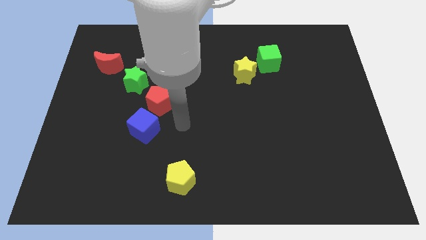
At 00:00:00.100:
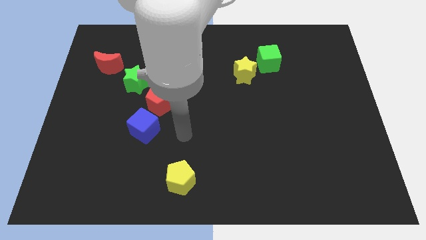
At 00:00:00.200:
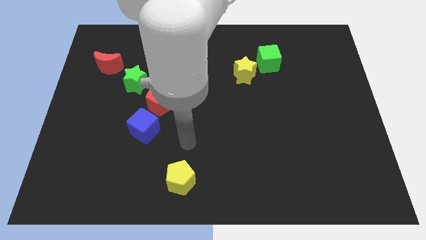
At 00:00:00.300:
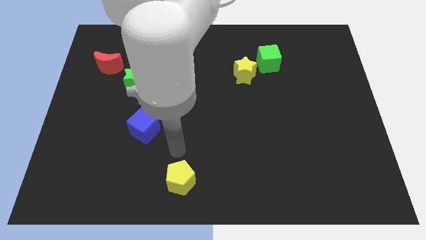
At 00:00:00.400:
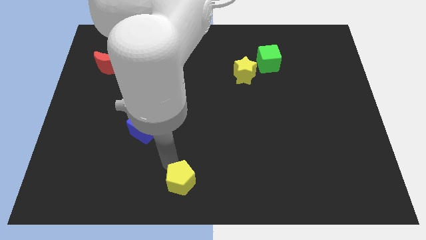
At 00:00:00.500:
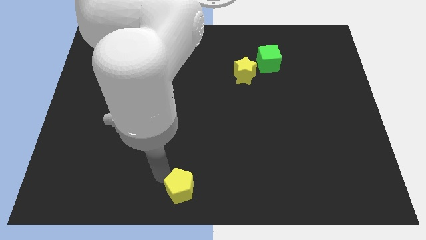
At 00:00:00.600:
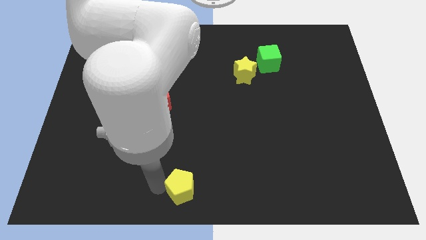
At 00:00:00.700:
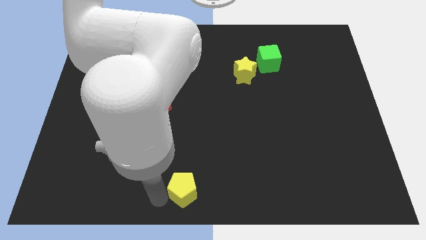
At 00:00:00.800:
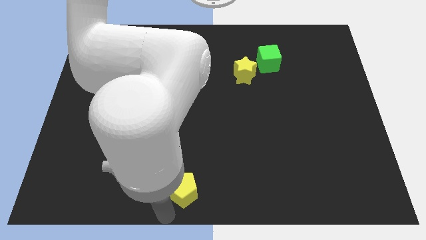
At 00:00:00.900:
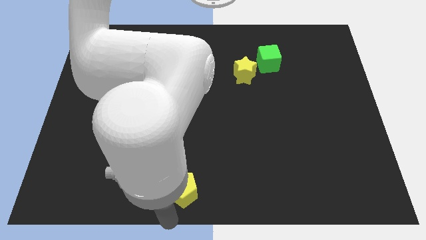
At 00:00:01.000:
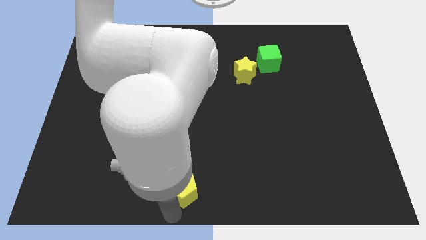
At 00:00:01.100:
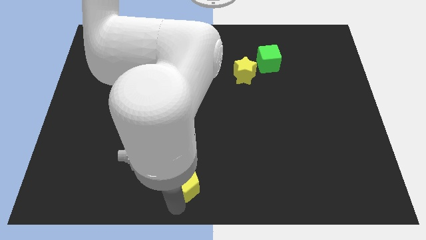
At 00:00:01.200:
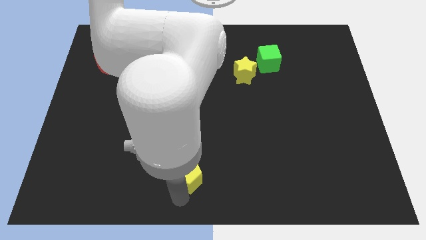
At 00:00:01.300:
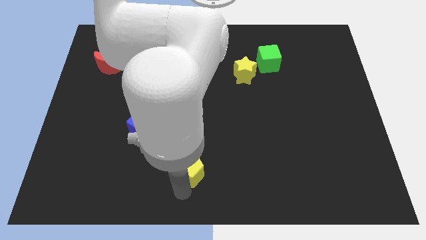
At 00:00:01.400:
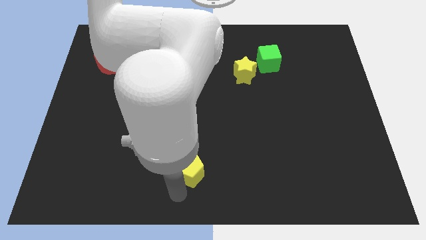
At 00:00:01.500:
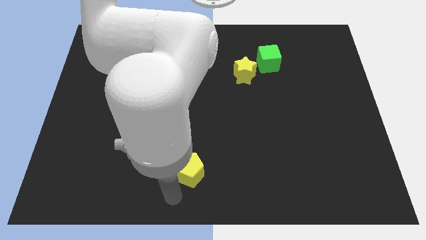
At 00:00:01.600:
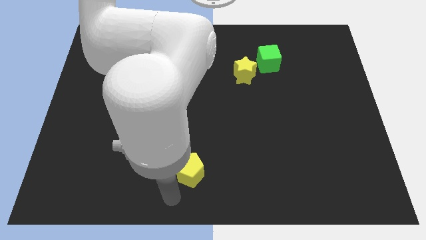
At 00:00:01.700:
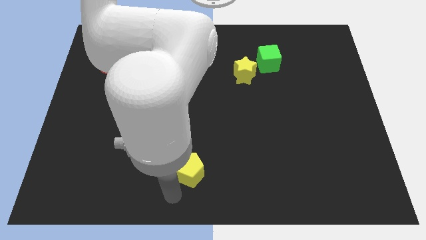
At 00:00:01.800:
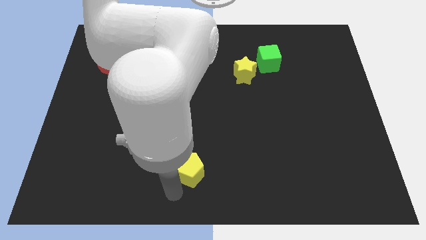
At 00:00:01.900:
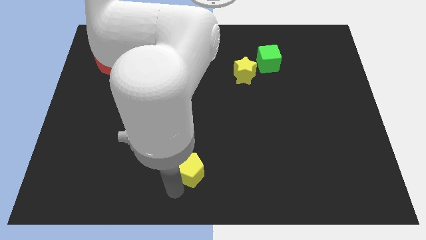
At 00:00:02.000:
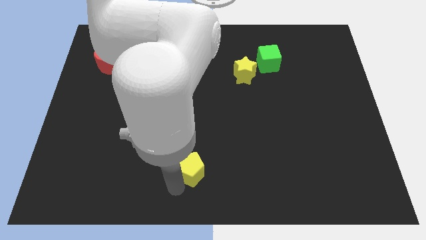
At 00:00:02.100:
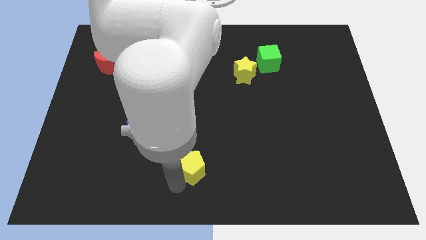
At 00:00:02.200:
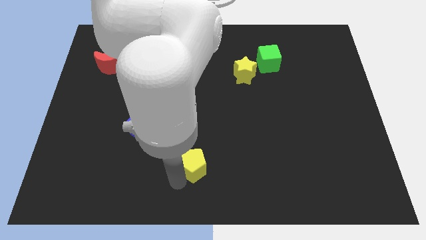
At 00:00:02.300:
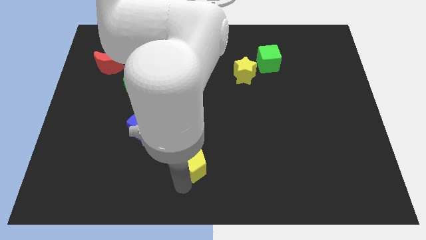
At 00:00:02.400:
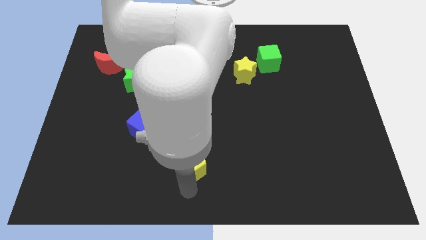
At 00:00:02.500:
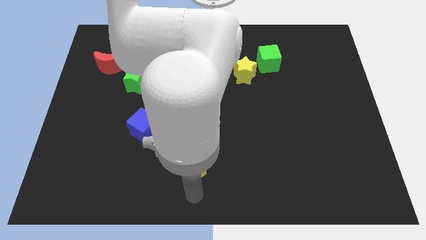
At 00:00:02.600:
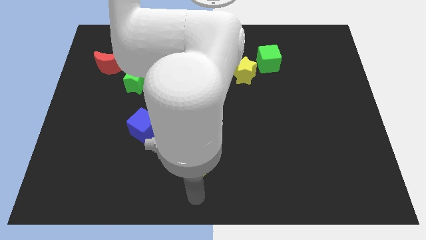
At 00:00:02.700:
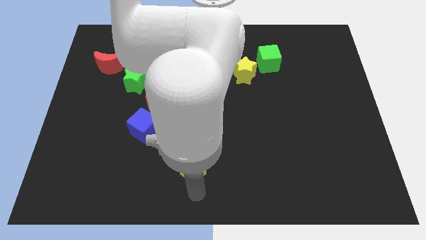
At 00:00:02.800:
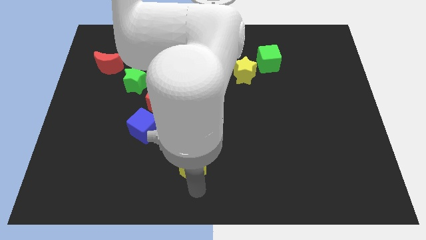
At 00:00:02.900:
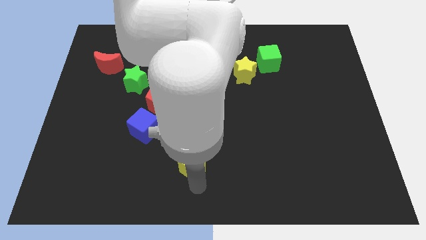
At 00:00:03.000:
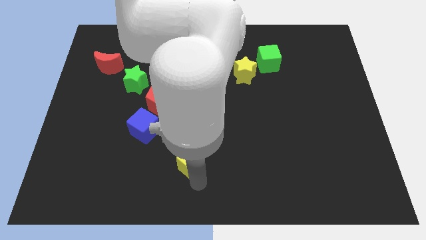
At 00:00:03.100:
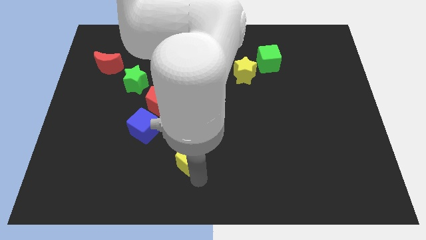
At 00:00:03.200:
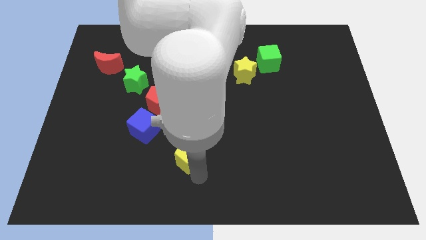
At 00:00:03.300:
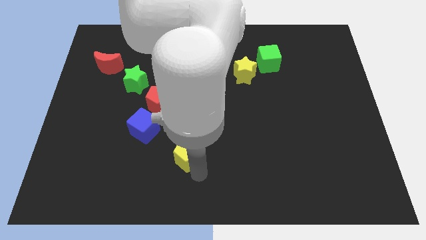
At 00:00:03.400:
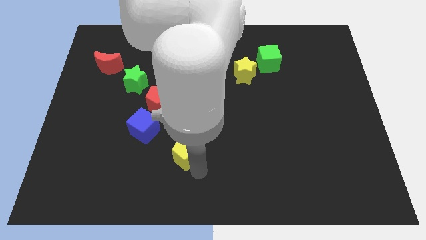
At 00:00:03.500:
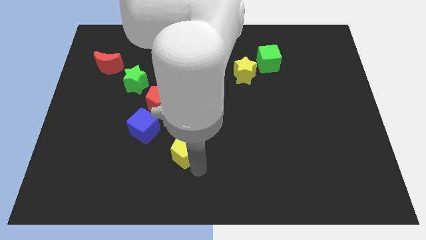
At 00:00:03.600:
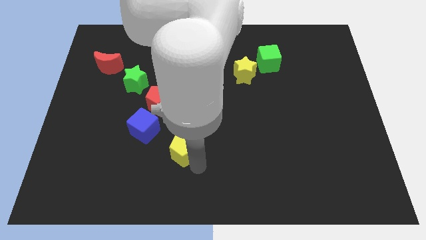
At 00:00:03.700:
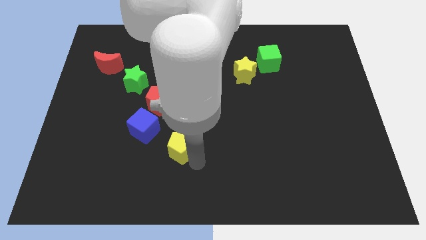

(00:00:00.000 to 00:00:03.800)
move the yellow pentagon up somewhat

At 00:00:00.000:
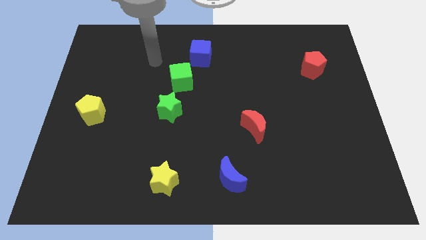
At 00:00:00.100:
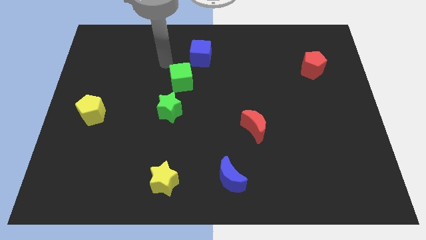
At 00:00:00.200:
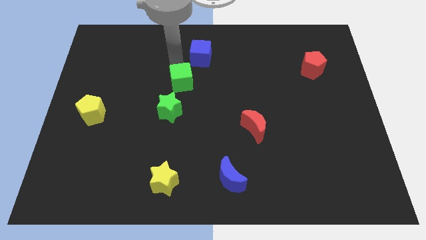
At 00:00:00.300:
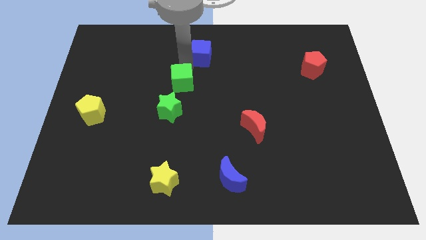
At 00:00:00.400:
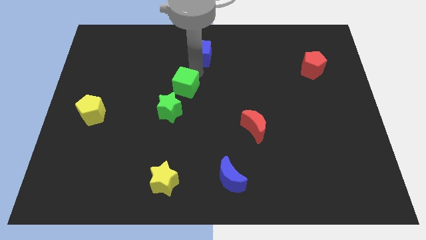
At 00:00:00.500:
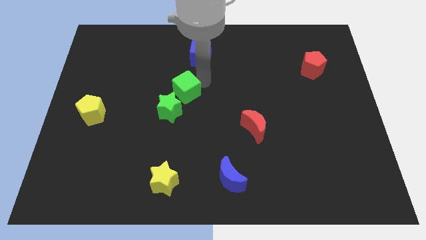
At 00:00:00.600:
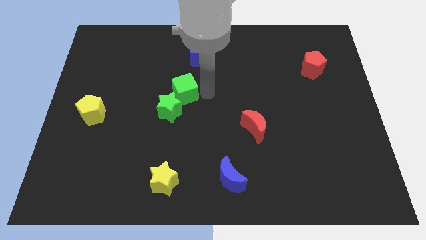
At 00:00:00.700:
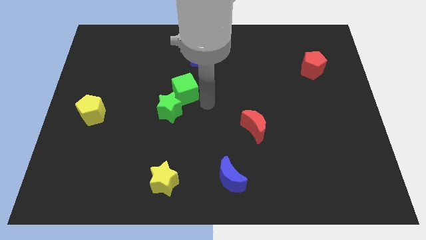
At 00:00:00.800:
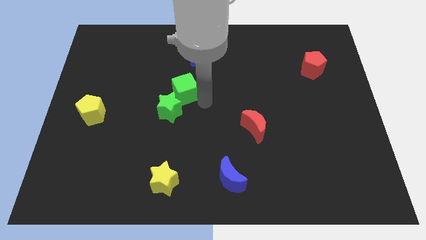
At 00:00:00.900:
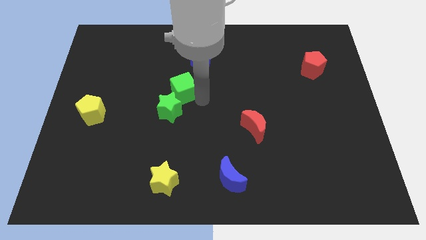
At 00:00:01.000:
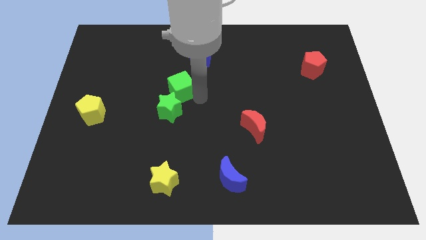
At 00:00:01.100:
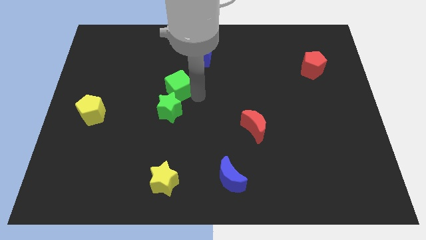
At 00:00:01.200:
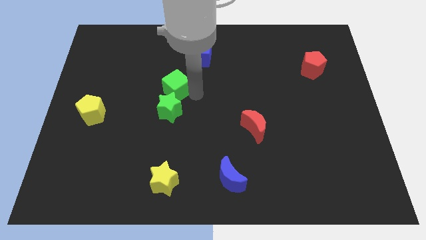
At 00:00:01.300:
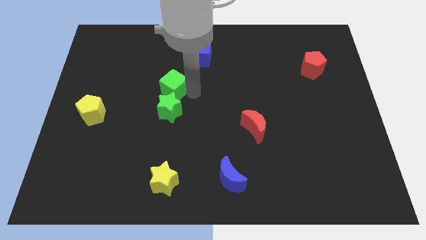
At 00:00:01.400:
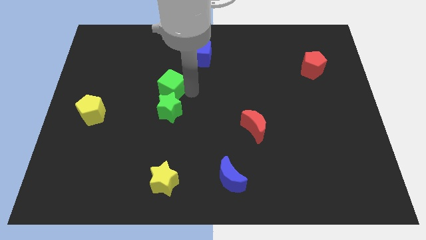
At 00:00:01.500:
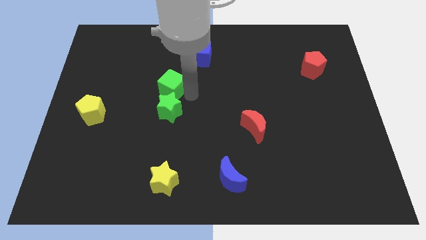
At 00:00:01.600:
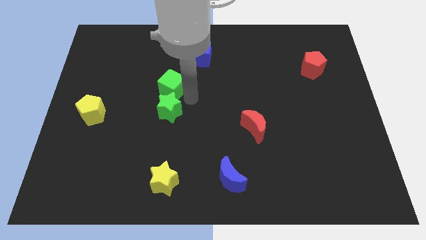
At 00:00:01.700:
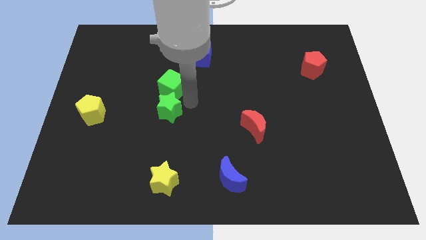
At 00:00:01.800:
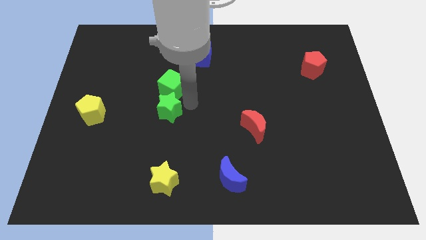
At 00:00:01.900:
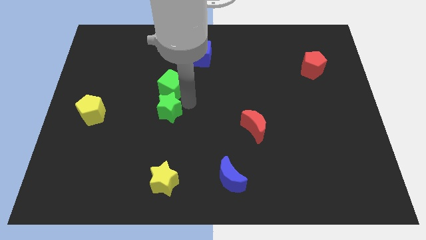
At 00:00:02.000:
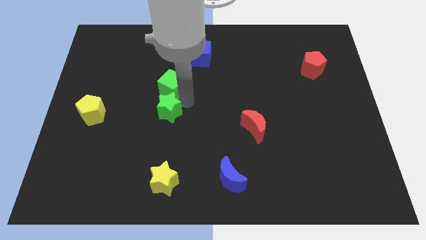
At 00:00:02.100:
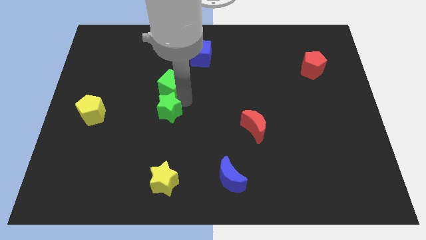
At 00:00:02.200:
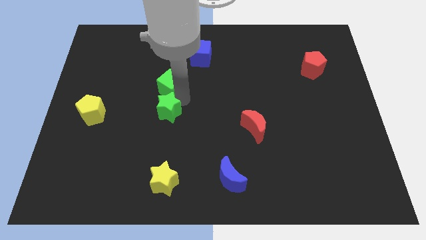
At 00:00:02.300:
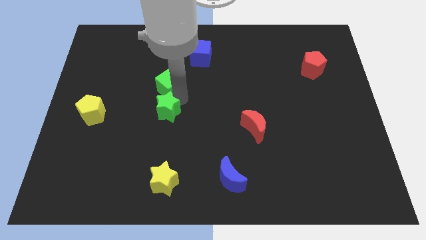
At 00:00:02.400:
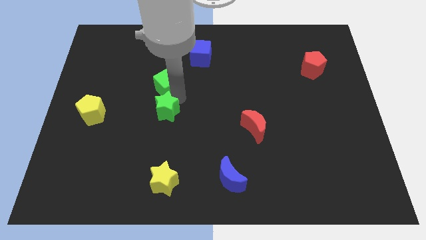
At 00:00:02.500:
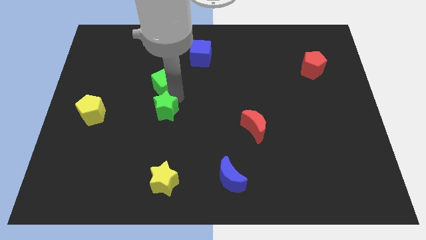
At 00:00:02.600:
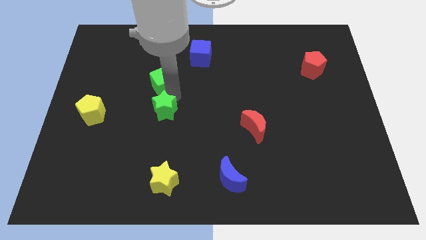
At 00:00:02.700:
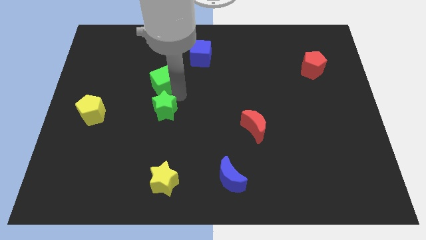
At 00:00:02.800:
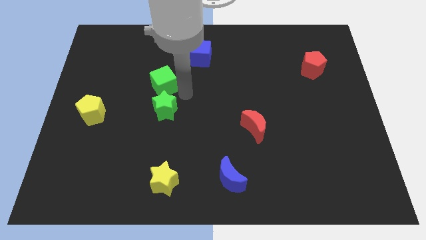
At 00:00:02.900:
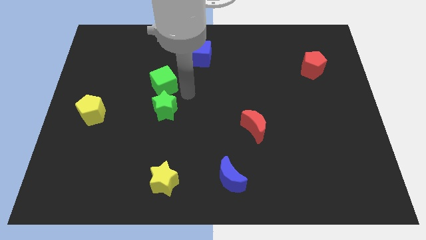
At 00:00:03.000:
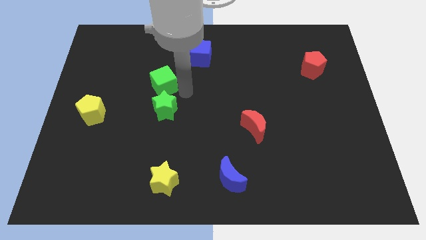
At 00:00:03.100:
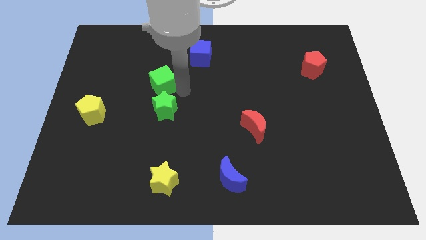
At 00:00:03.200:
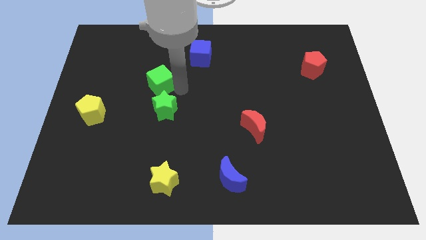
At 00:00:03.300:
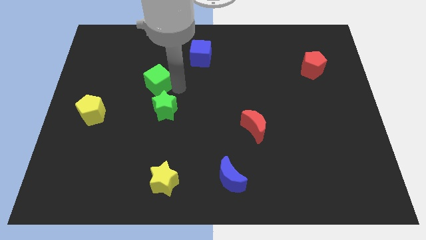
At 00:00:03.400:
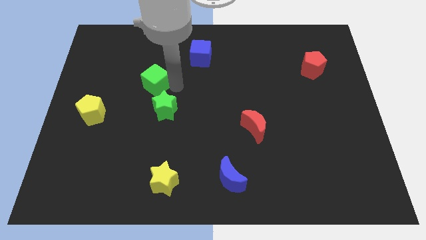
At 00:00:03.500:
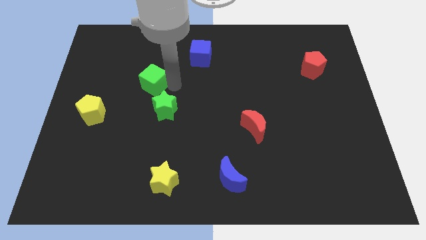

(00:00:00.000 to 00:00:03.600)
push the green cube somewhat to the left

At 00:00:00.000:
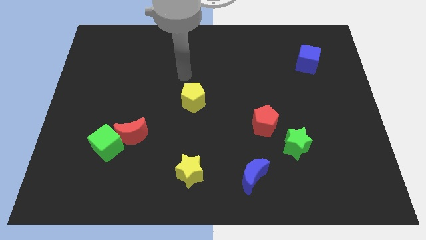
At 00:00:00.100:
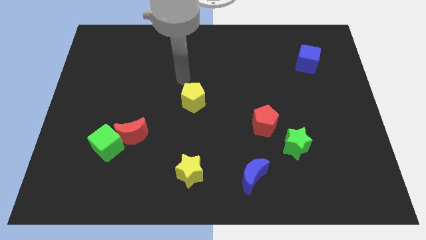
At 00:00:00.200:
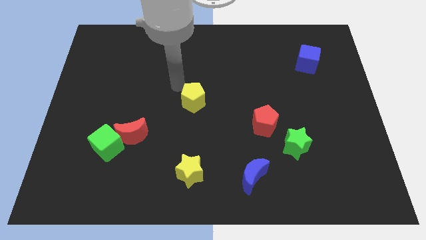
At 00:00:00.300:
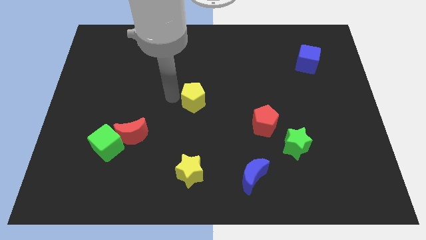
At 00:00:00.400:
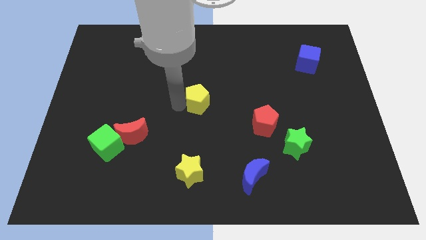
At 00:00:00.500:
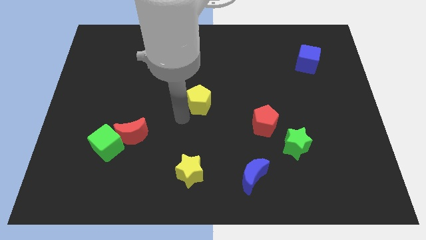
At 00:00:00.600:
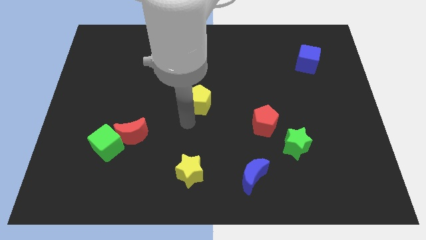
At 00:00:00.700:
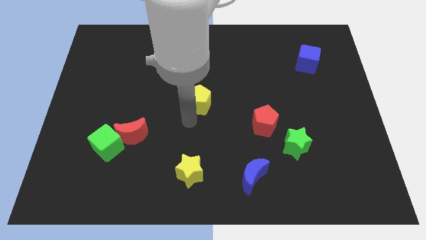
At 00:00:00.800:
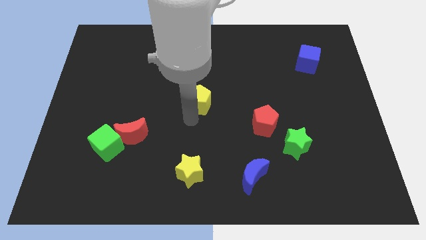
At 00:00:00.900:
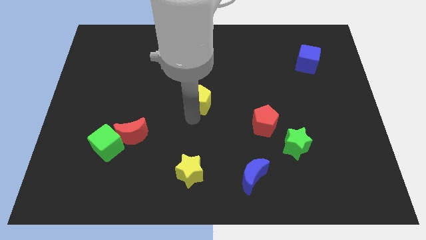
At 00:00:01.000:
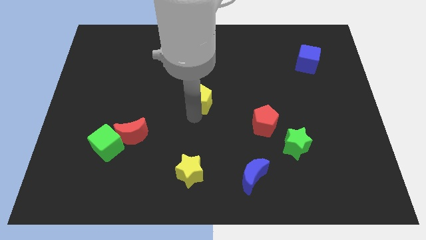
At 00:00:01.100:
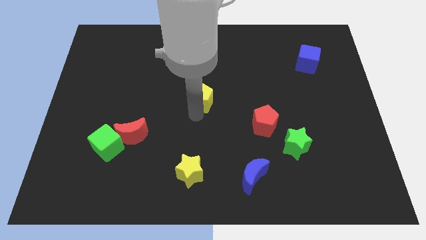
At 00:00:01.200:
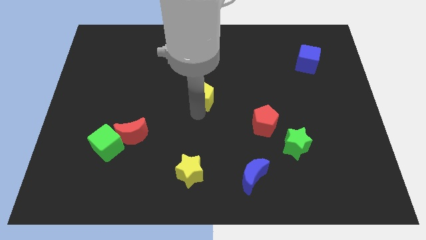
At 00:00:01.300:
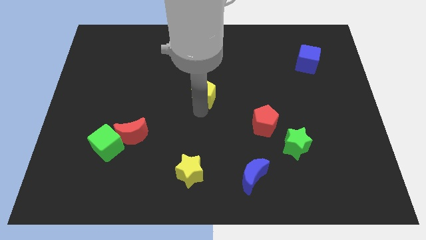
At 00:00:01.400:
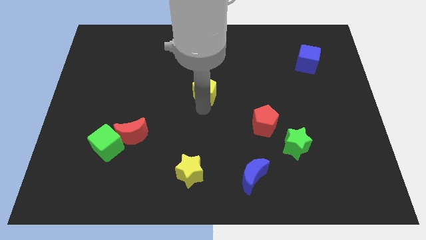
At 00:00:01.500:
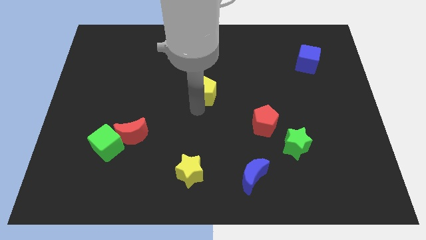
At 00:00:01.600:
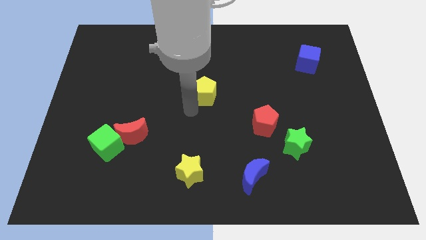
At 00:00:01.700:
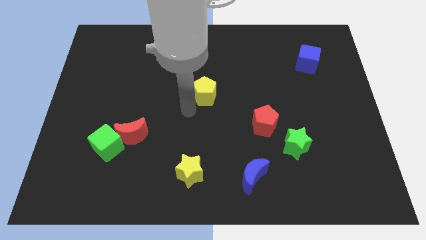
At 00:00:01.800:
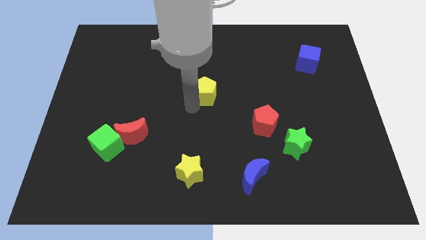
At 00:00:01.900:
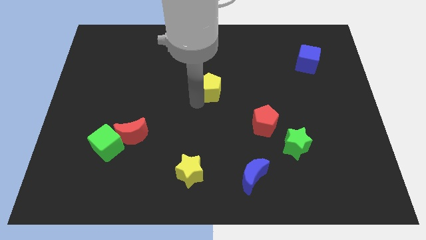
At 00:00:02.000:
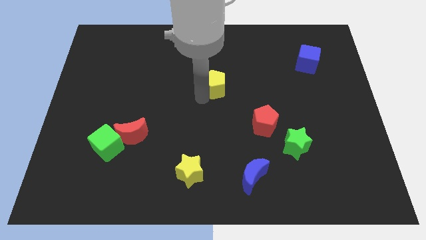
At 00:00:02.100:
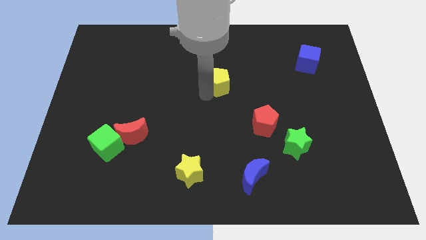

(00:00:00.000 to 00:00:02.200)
push the yellow pentagon a bit upwards and then right
